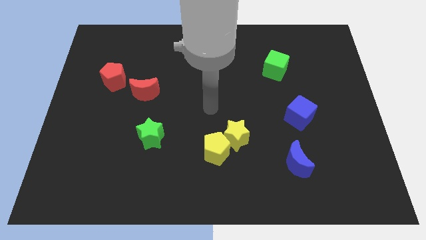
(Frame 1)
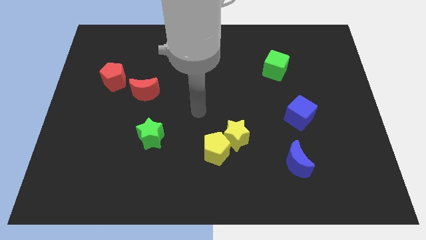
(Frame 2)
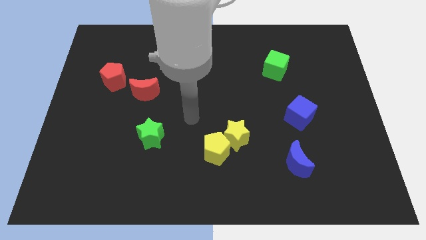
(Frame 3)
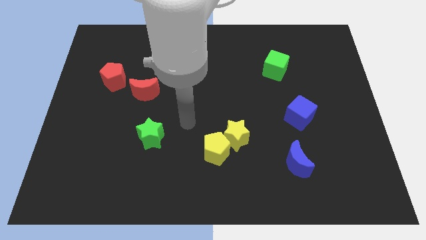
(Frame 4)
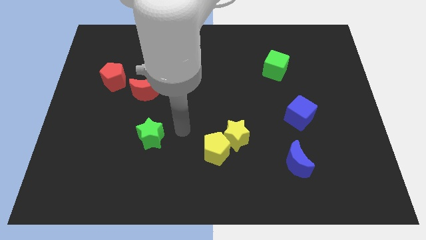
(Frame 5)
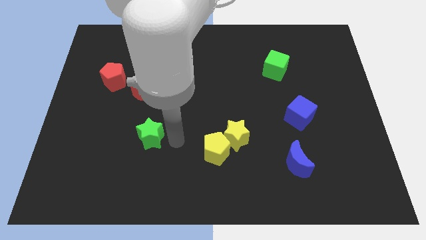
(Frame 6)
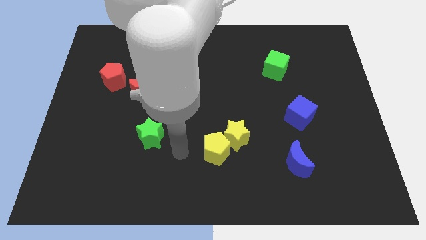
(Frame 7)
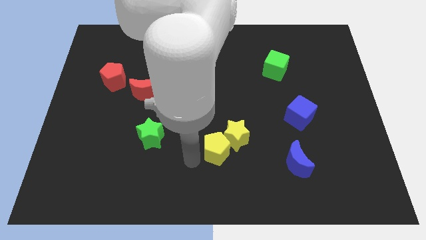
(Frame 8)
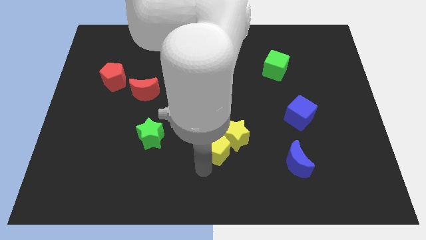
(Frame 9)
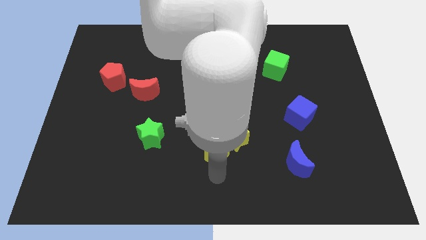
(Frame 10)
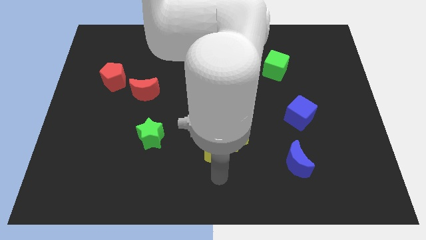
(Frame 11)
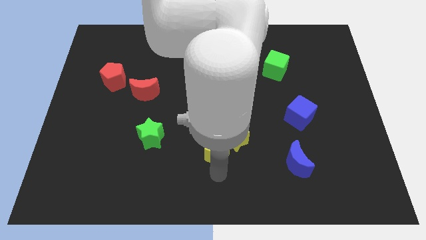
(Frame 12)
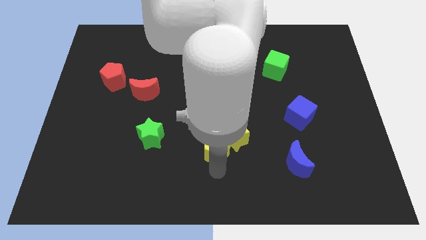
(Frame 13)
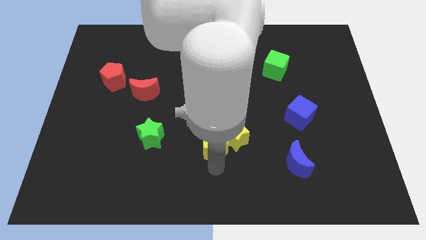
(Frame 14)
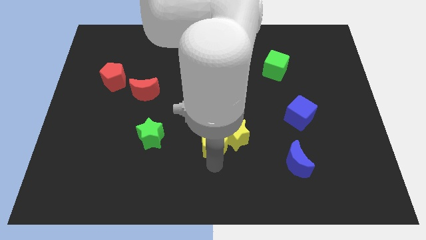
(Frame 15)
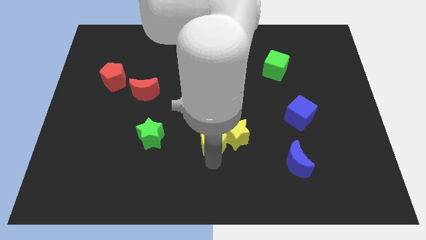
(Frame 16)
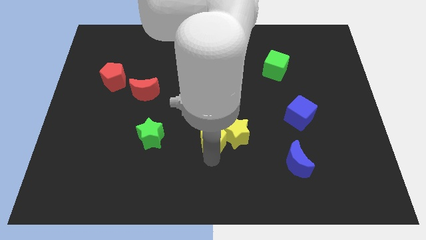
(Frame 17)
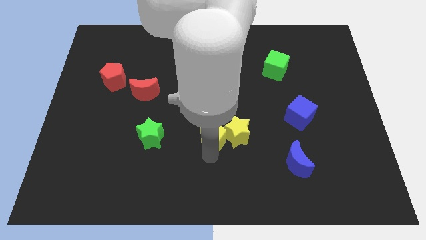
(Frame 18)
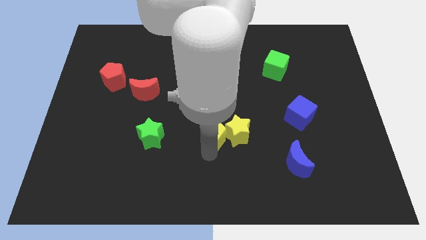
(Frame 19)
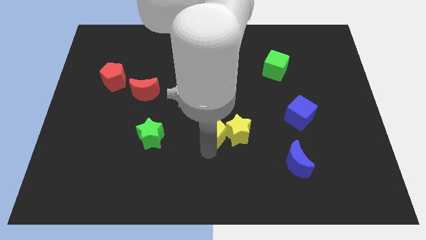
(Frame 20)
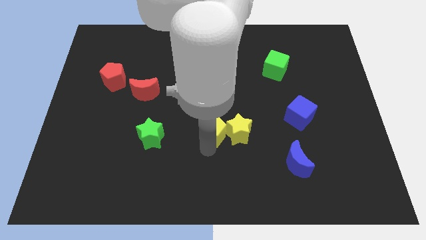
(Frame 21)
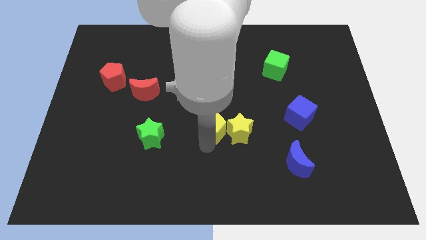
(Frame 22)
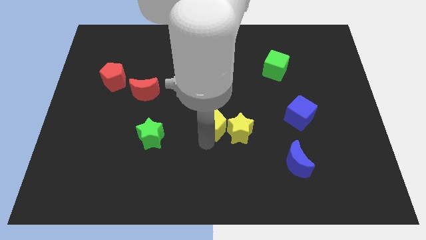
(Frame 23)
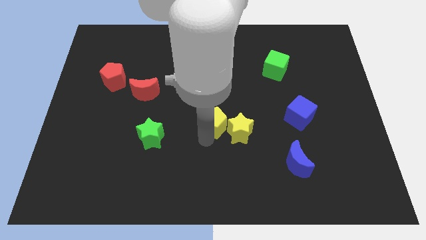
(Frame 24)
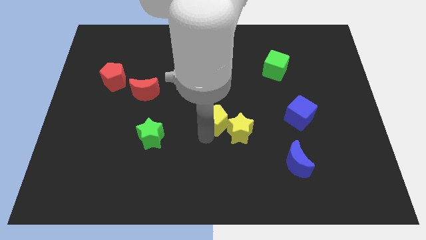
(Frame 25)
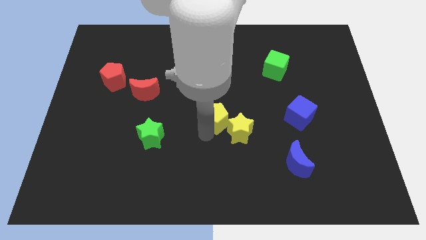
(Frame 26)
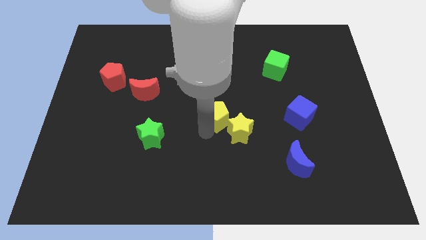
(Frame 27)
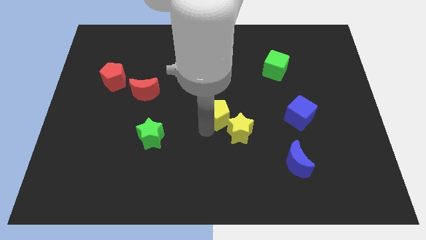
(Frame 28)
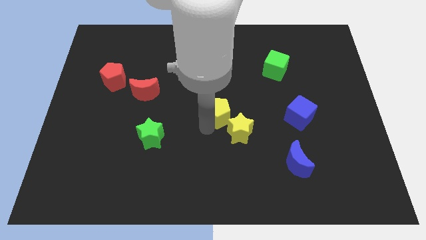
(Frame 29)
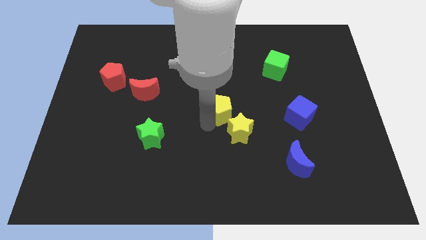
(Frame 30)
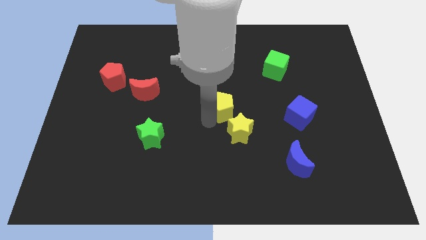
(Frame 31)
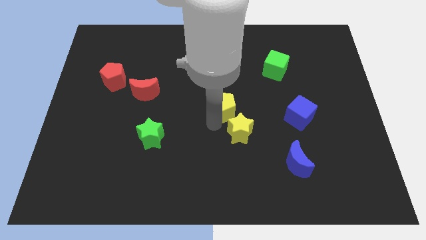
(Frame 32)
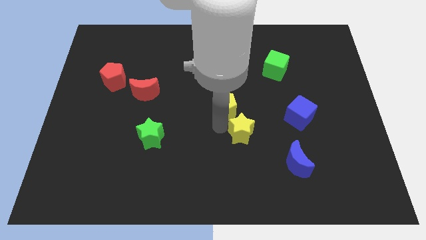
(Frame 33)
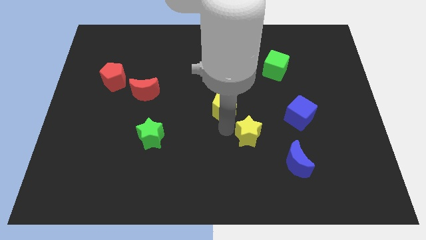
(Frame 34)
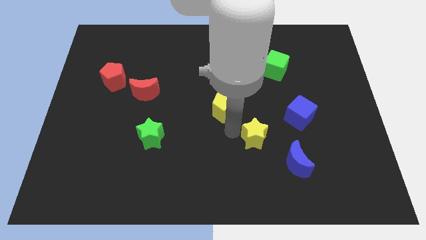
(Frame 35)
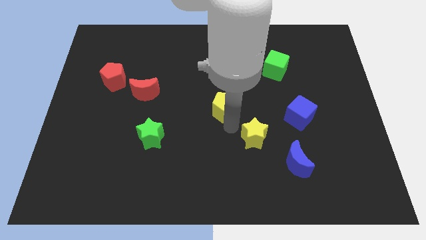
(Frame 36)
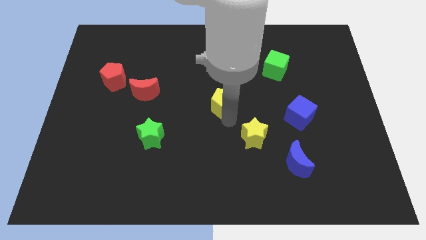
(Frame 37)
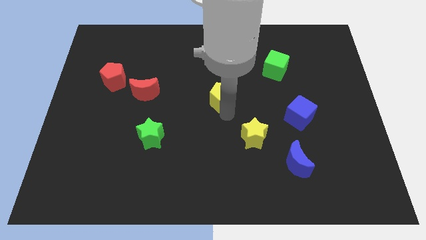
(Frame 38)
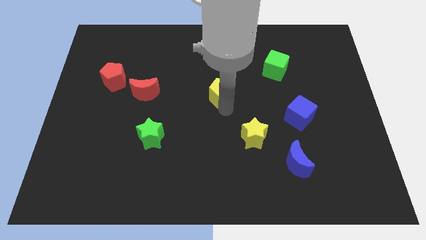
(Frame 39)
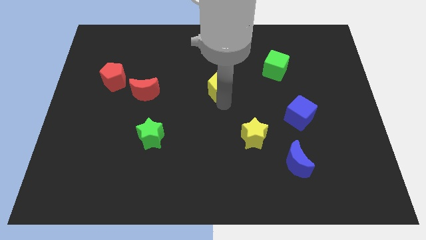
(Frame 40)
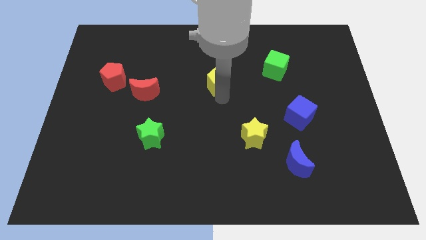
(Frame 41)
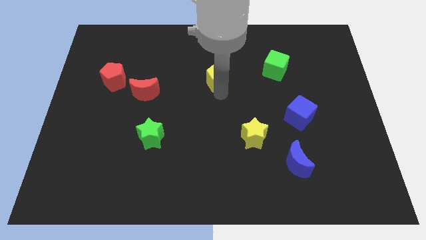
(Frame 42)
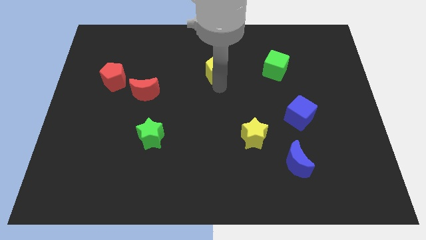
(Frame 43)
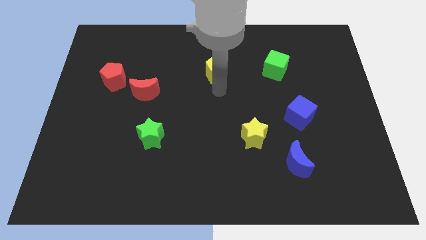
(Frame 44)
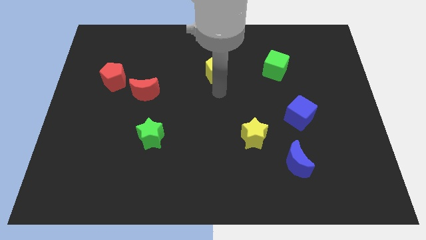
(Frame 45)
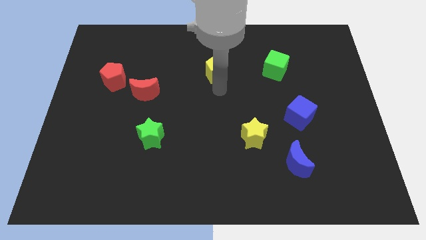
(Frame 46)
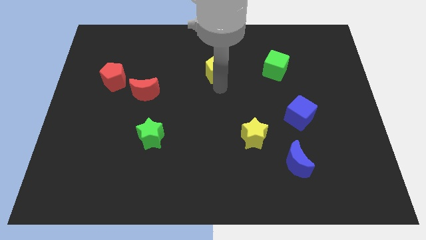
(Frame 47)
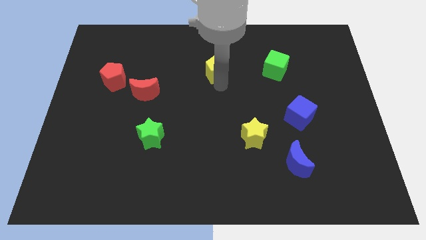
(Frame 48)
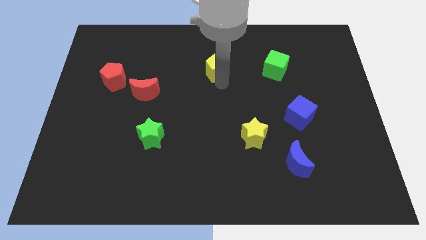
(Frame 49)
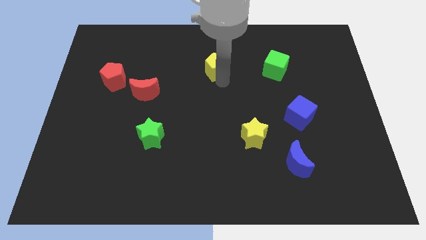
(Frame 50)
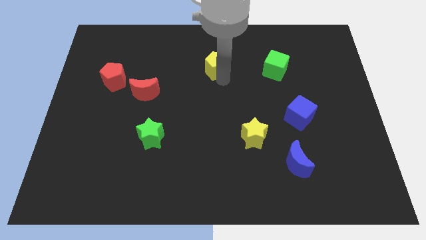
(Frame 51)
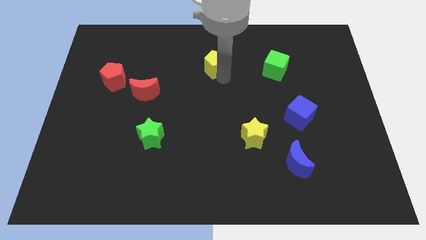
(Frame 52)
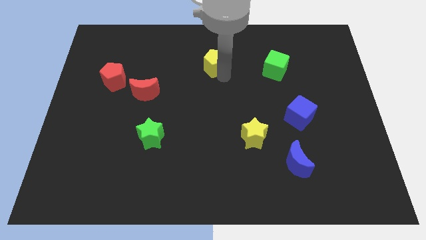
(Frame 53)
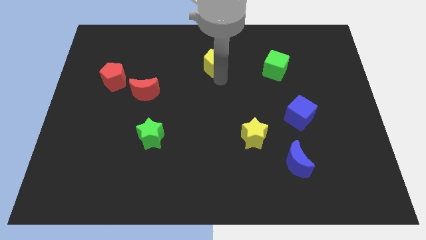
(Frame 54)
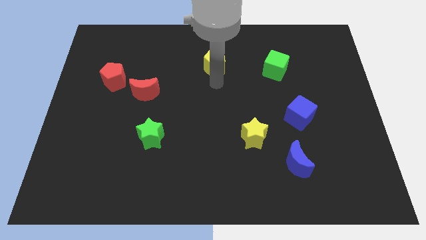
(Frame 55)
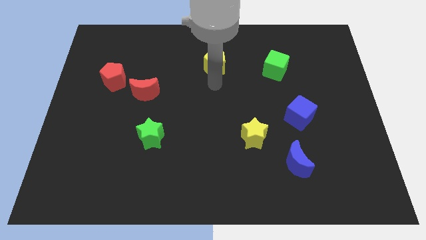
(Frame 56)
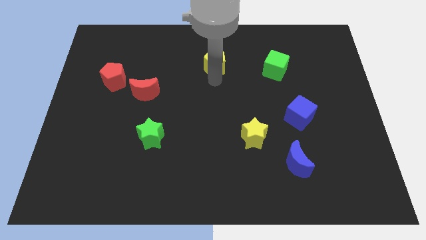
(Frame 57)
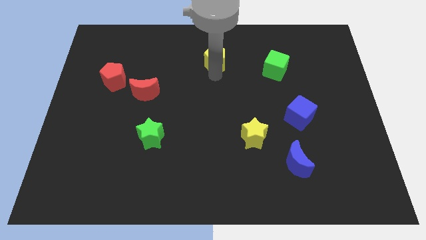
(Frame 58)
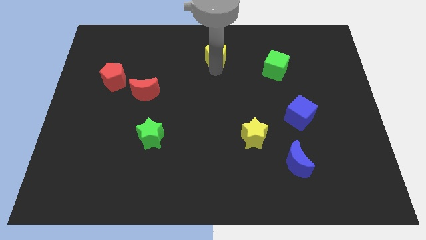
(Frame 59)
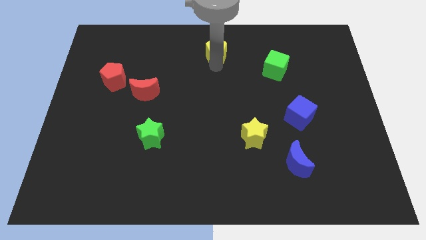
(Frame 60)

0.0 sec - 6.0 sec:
slide the yellow pentagon to the towards your base

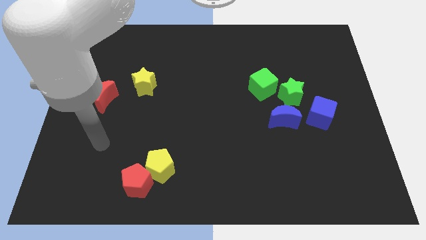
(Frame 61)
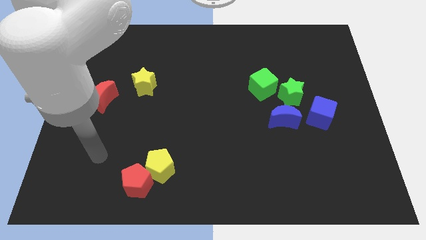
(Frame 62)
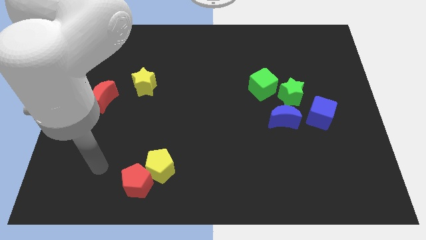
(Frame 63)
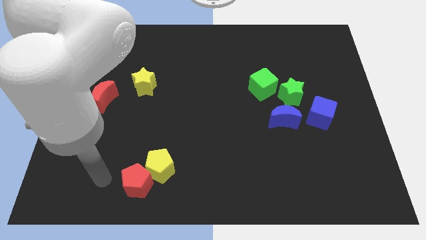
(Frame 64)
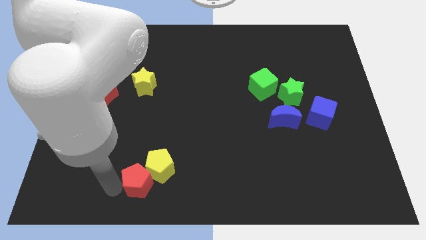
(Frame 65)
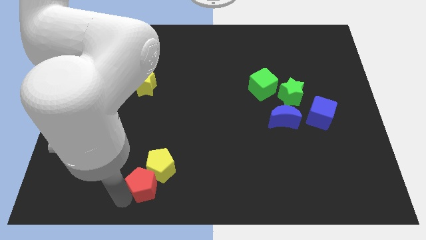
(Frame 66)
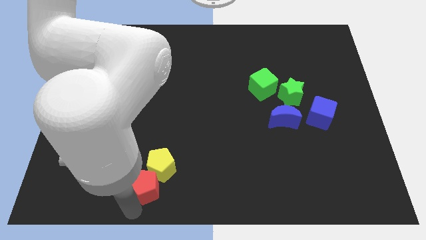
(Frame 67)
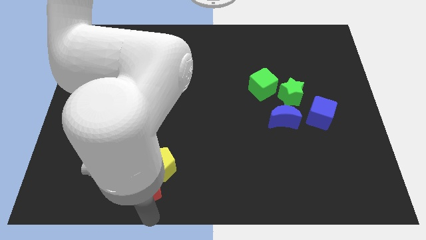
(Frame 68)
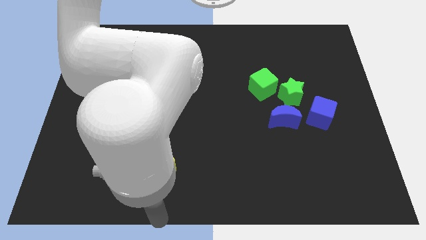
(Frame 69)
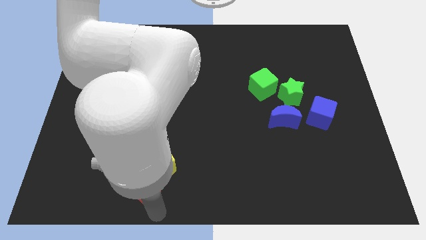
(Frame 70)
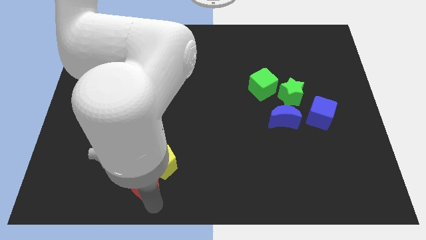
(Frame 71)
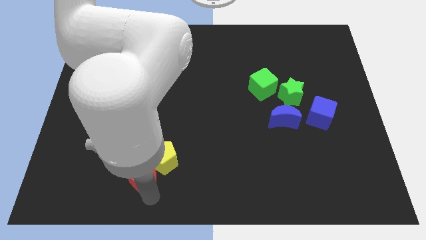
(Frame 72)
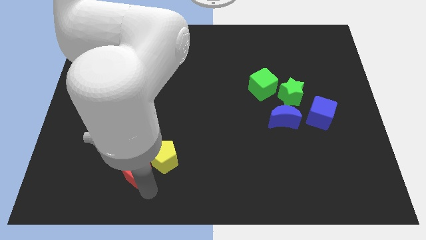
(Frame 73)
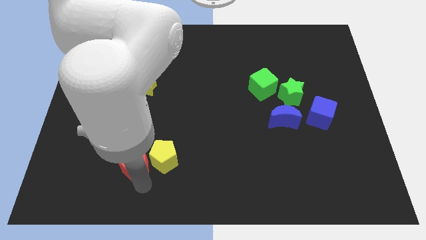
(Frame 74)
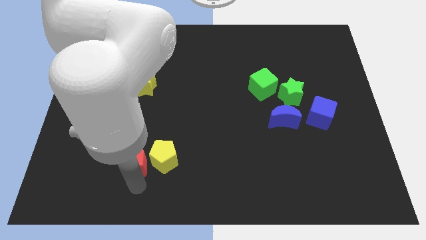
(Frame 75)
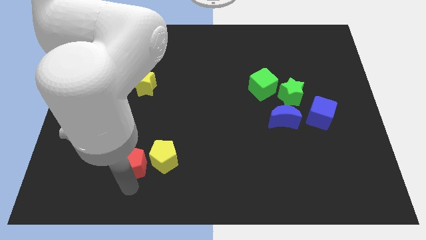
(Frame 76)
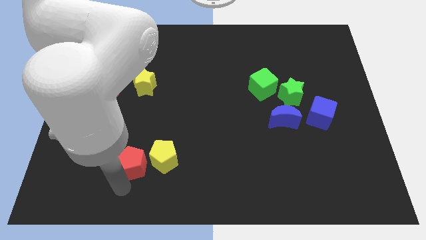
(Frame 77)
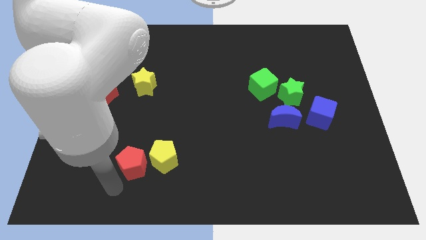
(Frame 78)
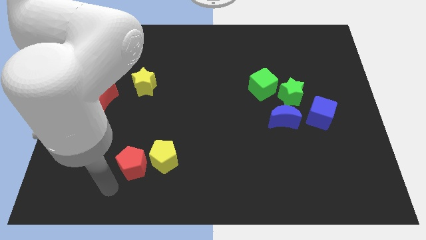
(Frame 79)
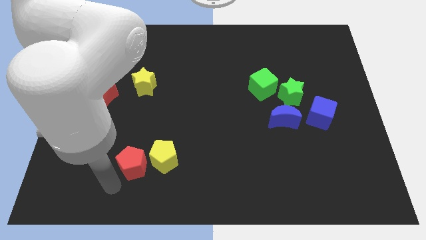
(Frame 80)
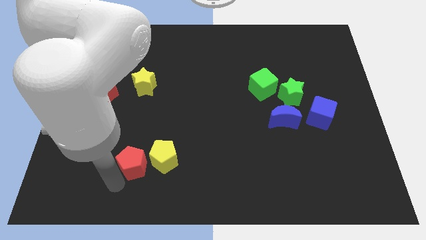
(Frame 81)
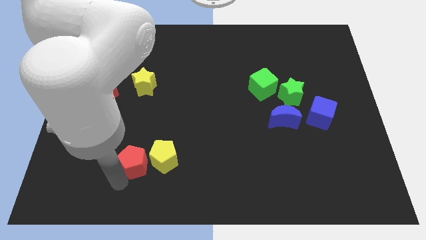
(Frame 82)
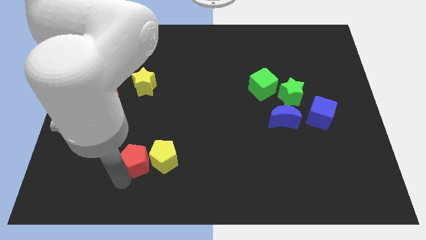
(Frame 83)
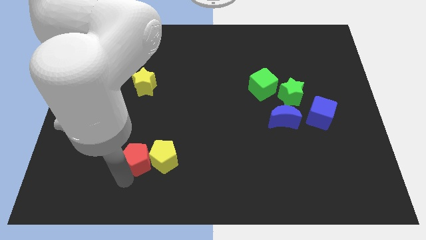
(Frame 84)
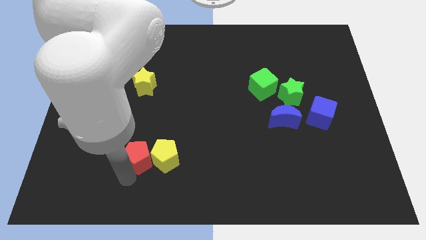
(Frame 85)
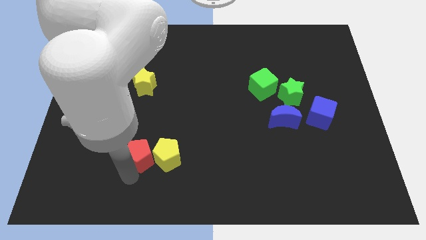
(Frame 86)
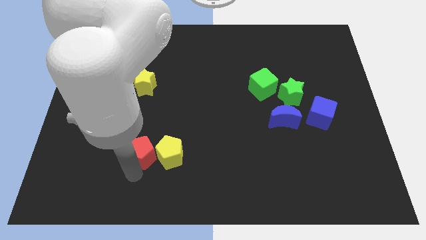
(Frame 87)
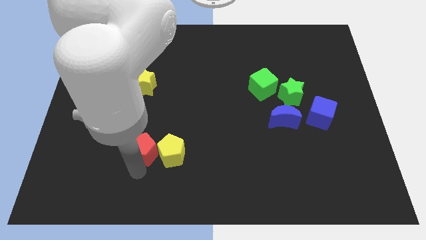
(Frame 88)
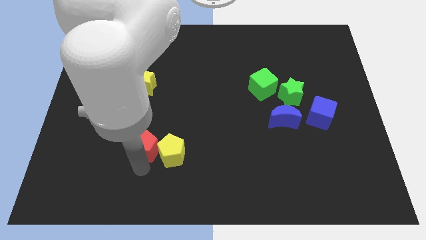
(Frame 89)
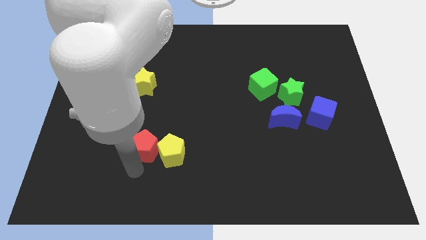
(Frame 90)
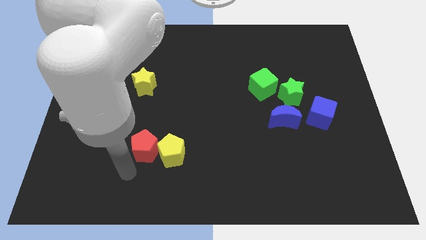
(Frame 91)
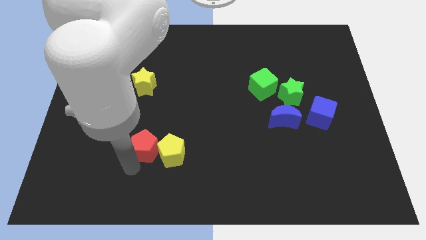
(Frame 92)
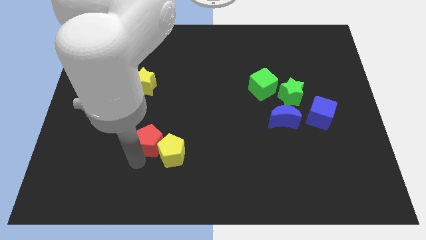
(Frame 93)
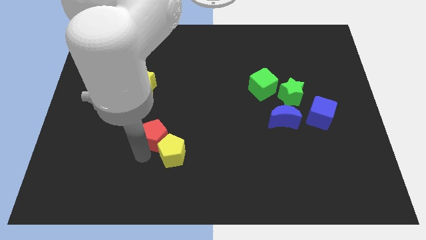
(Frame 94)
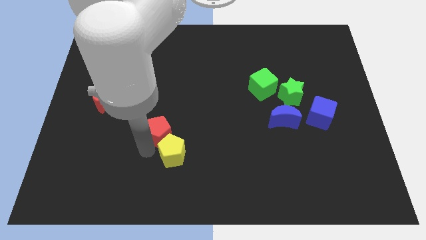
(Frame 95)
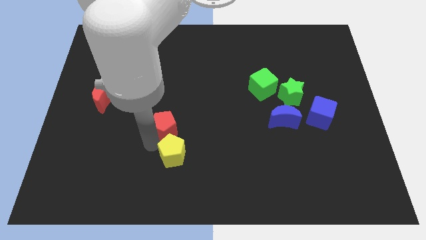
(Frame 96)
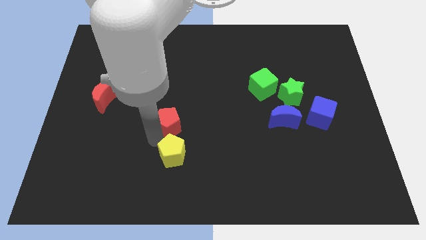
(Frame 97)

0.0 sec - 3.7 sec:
slide the red pentagon to the middle of the board
